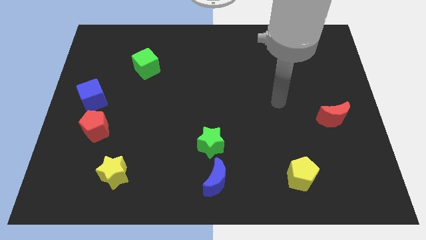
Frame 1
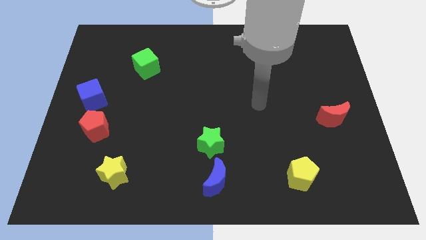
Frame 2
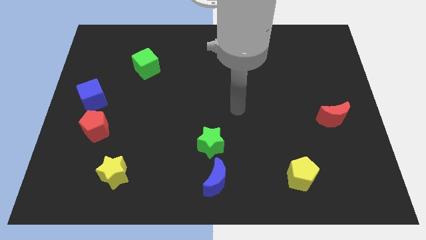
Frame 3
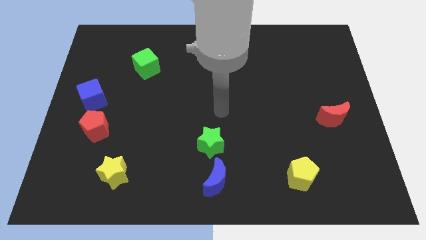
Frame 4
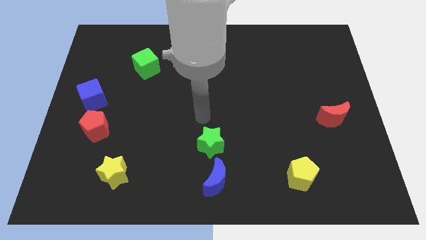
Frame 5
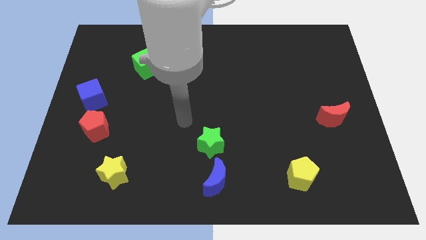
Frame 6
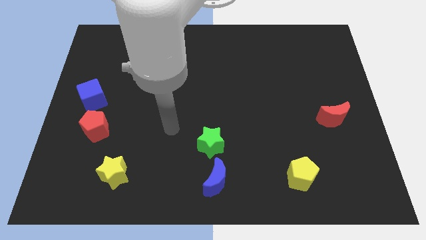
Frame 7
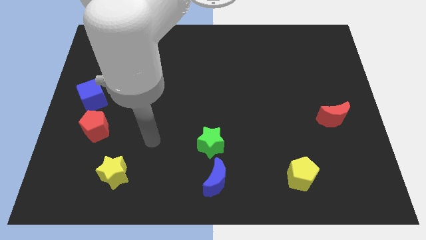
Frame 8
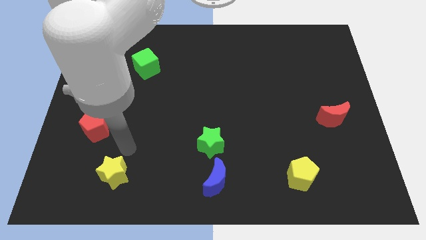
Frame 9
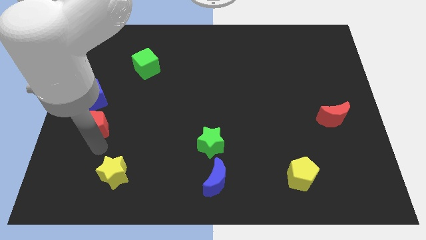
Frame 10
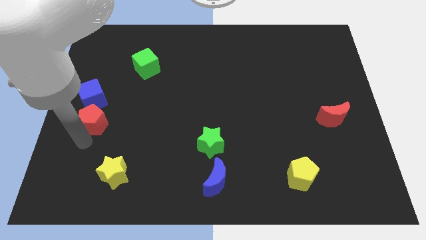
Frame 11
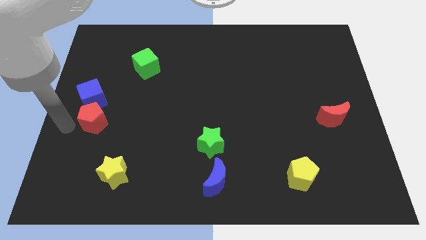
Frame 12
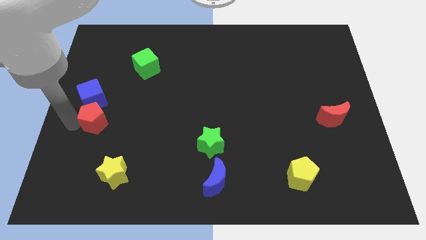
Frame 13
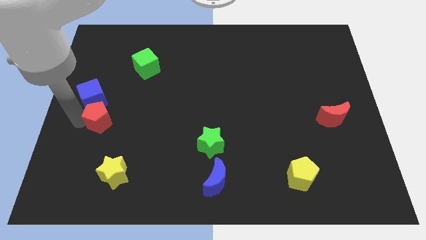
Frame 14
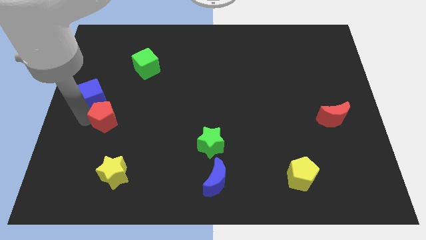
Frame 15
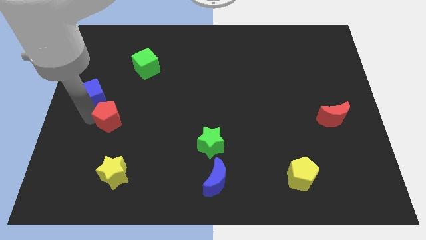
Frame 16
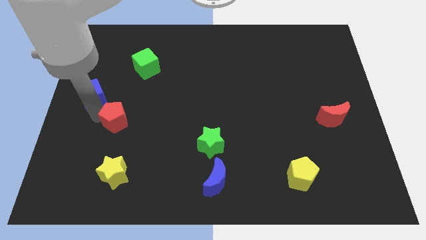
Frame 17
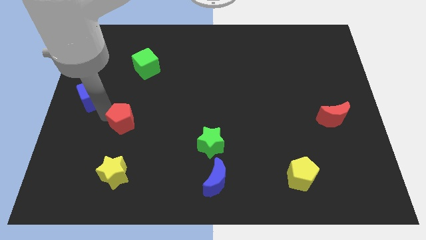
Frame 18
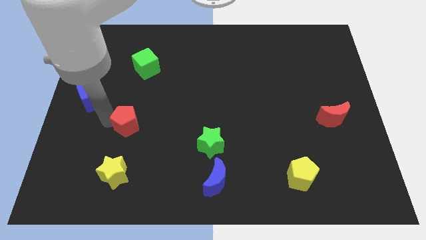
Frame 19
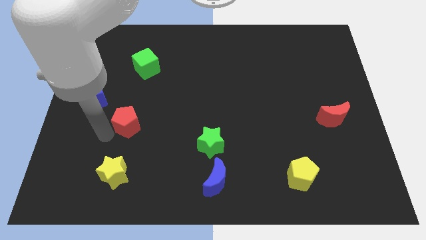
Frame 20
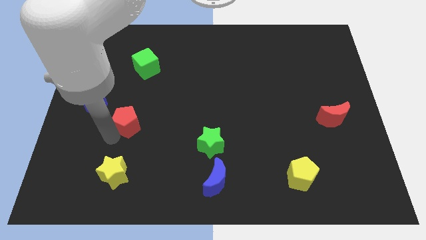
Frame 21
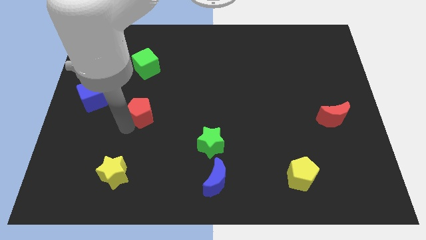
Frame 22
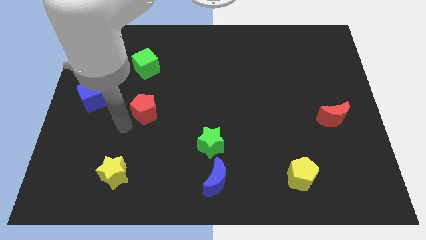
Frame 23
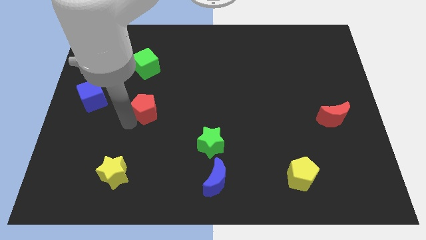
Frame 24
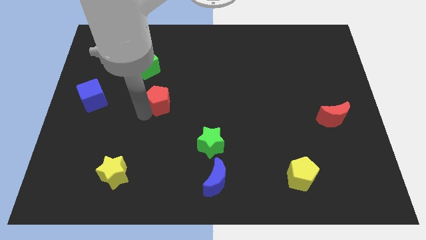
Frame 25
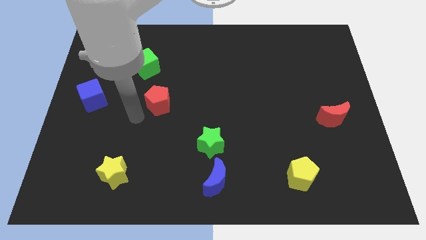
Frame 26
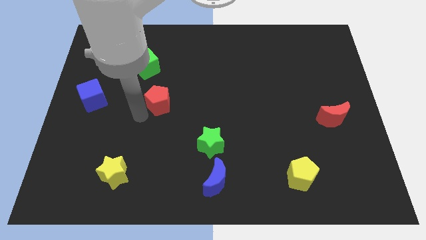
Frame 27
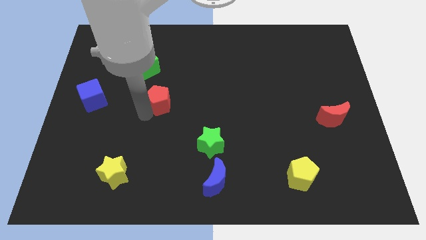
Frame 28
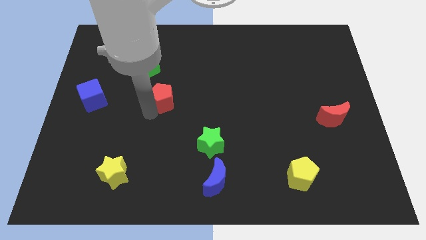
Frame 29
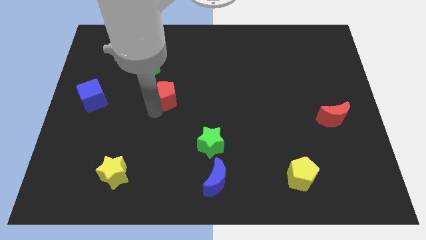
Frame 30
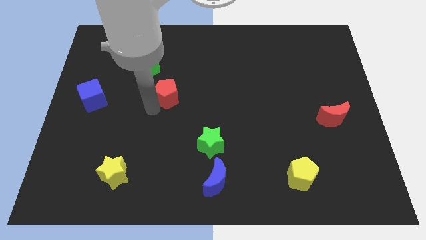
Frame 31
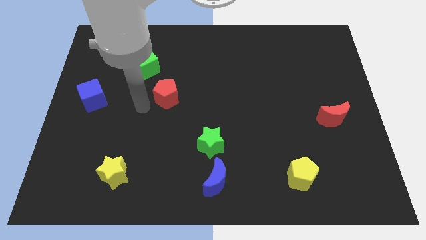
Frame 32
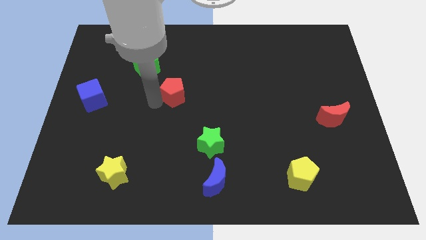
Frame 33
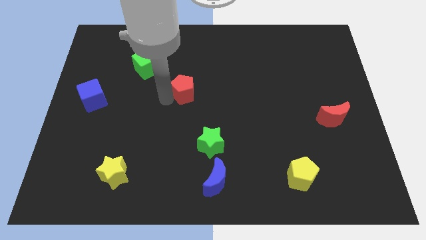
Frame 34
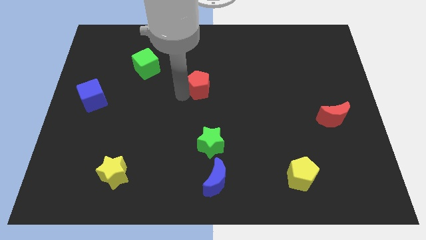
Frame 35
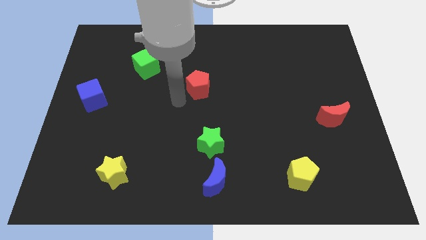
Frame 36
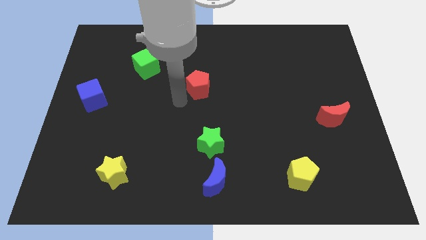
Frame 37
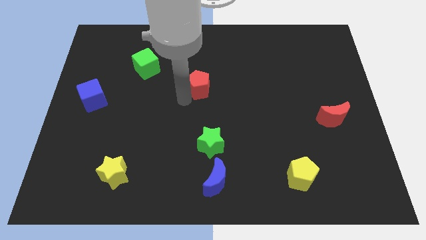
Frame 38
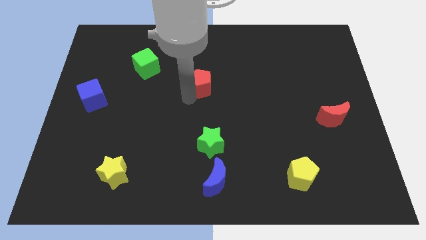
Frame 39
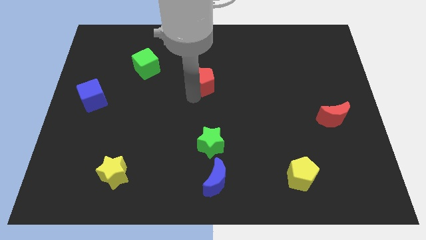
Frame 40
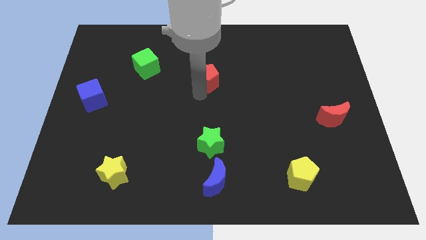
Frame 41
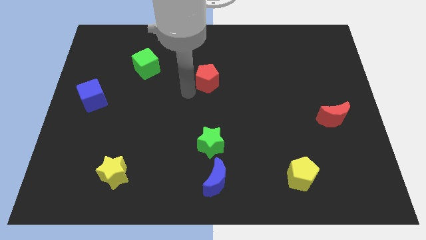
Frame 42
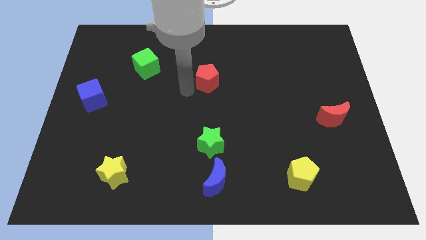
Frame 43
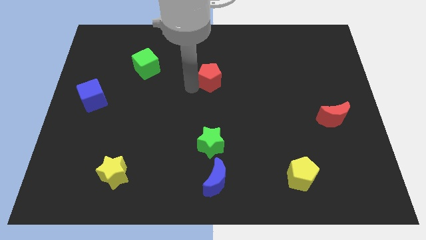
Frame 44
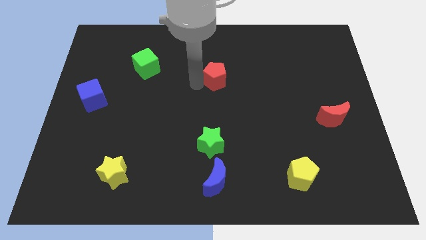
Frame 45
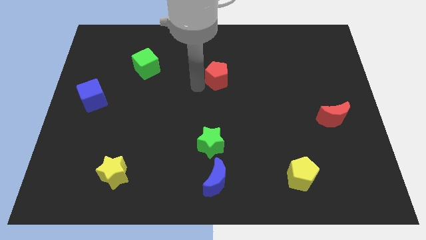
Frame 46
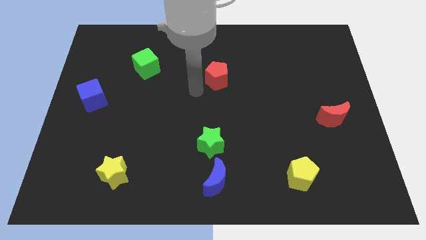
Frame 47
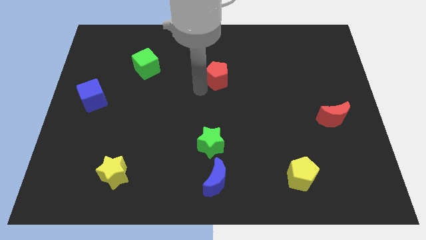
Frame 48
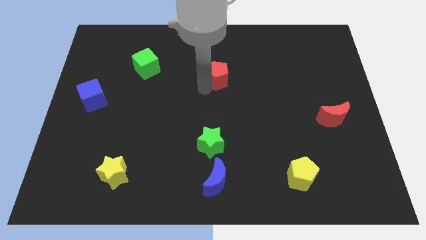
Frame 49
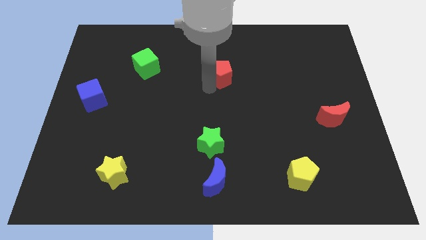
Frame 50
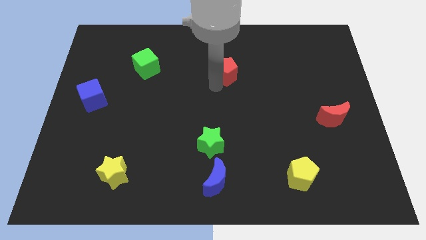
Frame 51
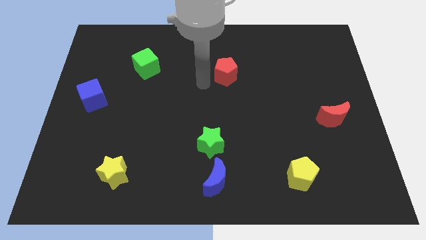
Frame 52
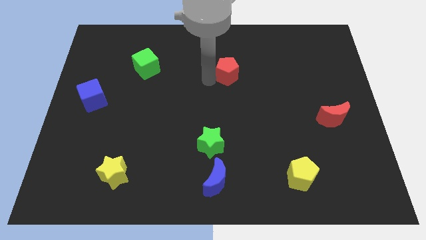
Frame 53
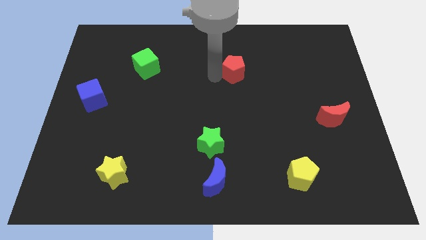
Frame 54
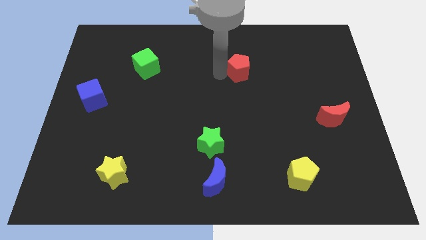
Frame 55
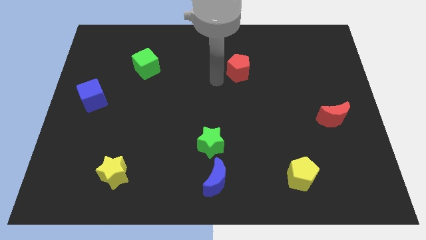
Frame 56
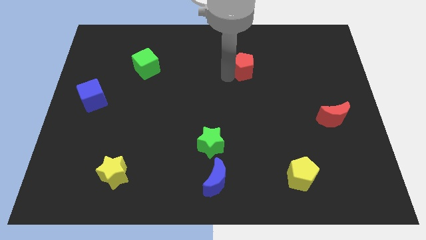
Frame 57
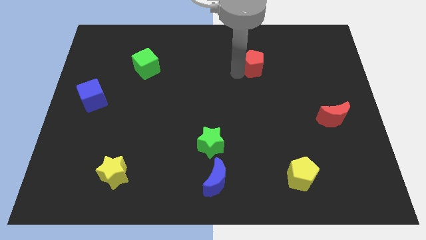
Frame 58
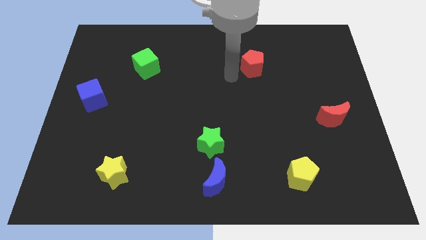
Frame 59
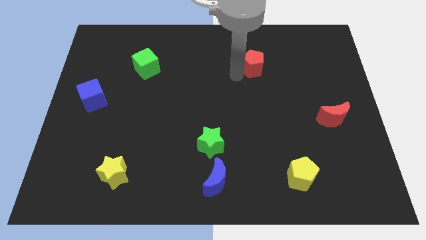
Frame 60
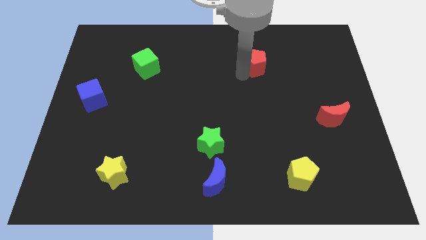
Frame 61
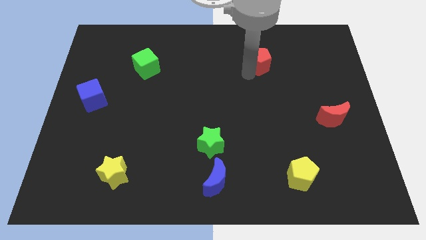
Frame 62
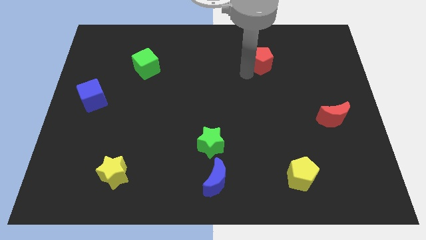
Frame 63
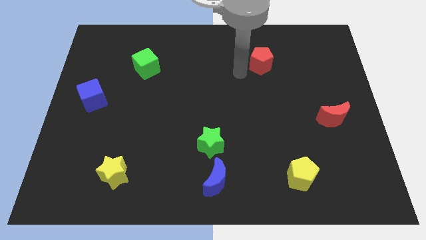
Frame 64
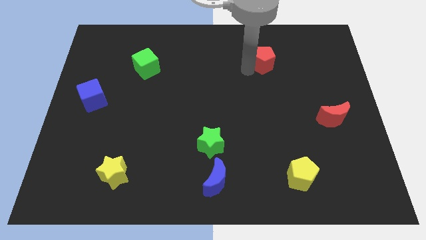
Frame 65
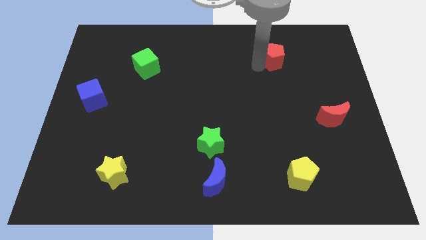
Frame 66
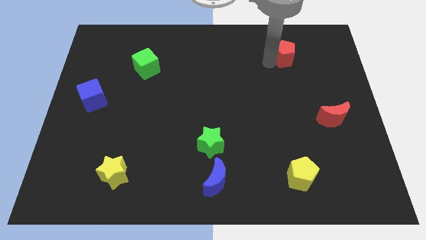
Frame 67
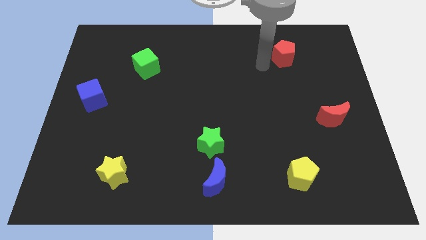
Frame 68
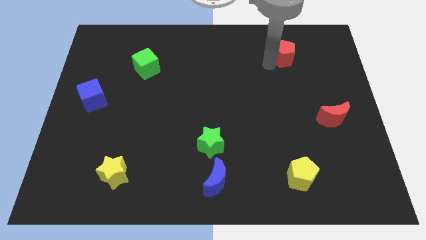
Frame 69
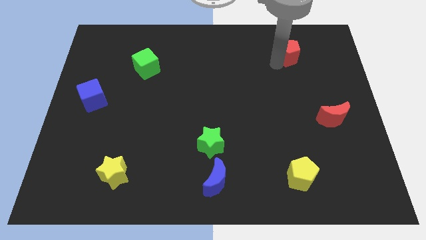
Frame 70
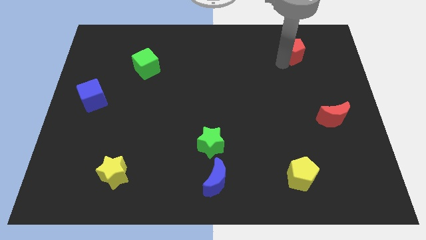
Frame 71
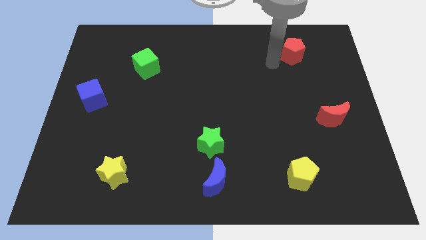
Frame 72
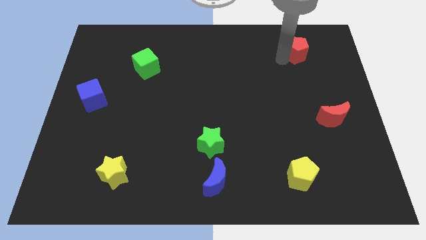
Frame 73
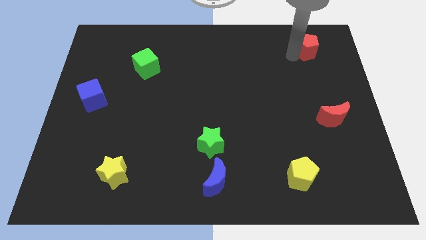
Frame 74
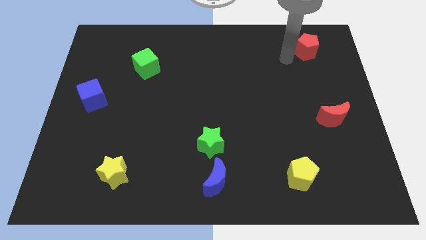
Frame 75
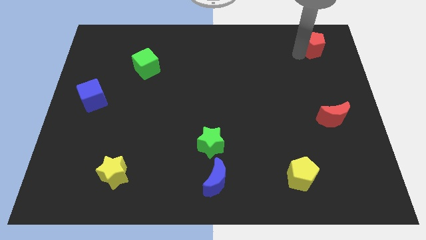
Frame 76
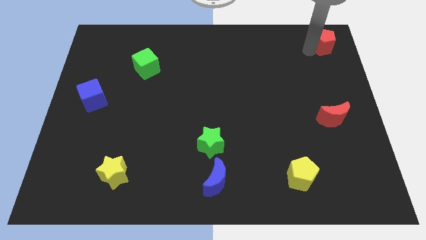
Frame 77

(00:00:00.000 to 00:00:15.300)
push the red pentagon to the top right
